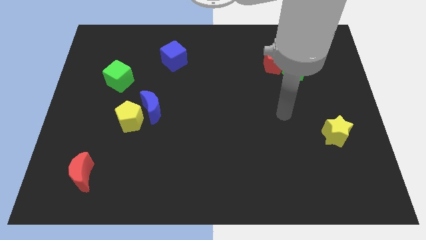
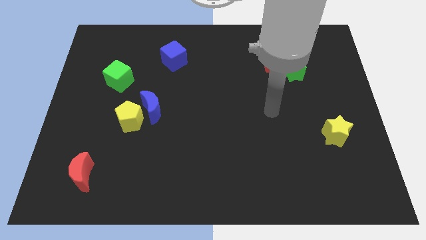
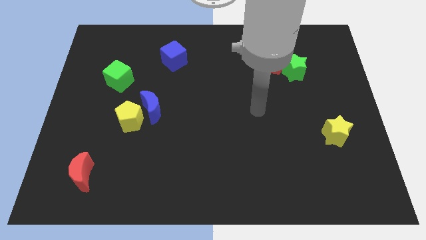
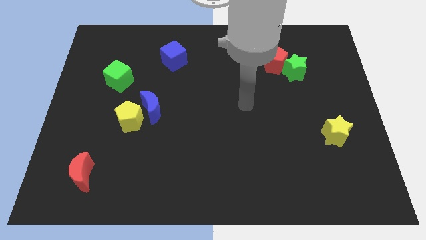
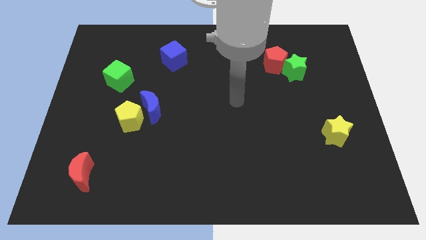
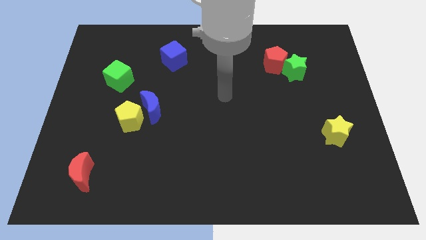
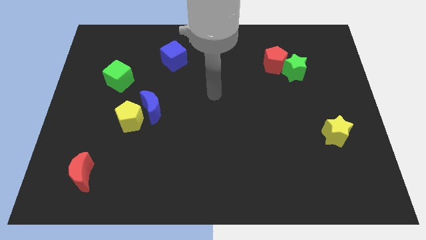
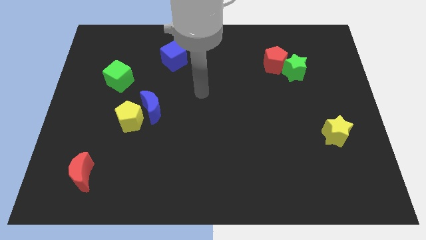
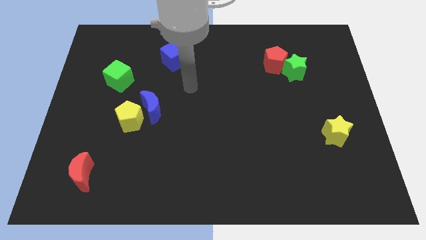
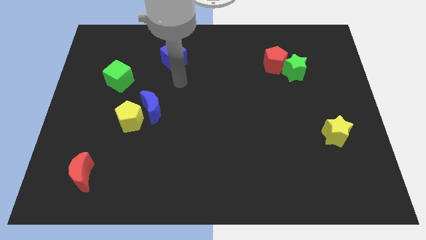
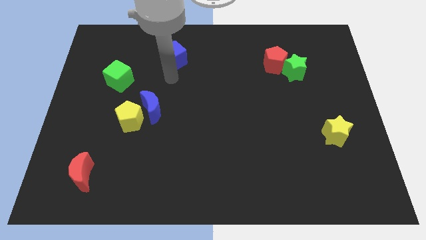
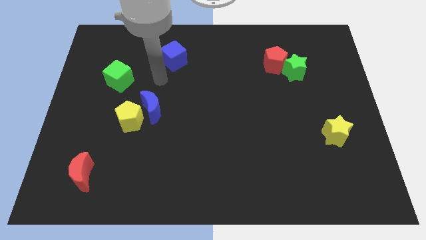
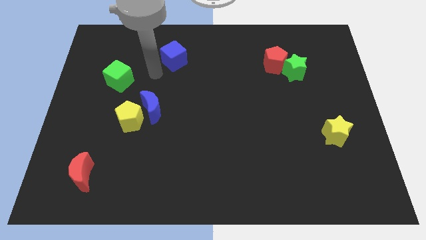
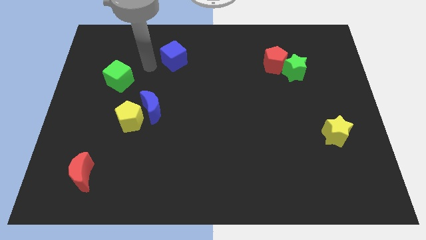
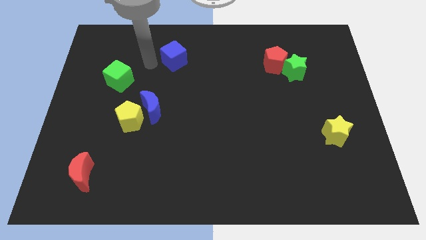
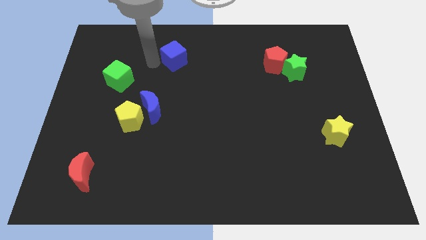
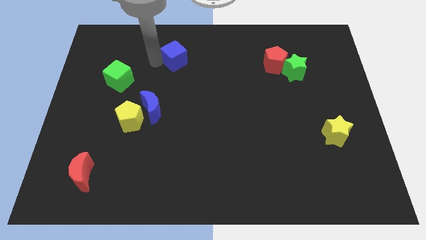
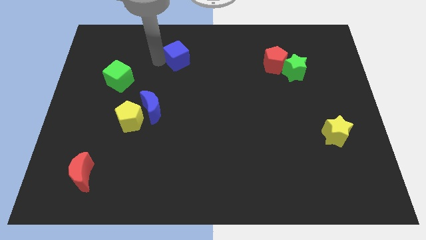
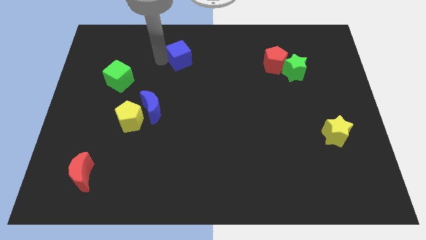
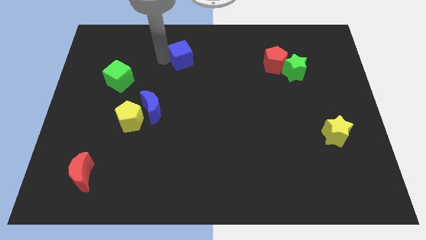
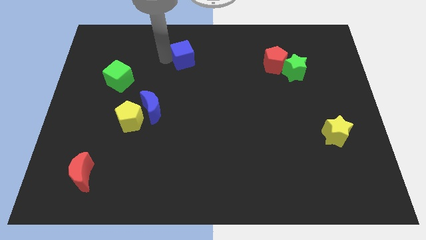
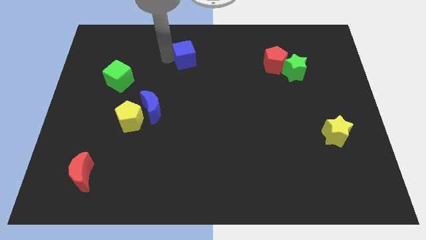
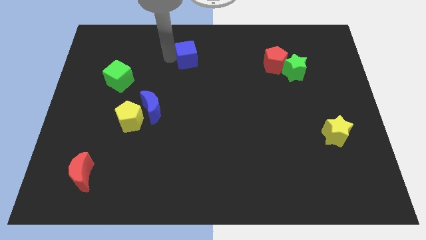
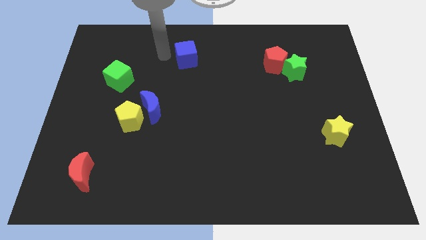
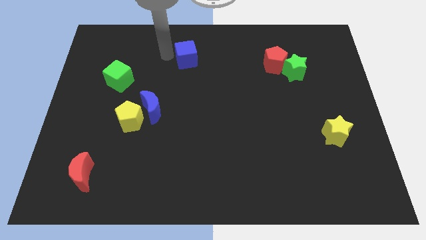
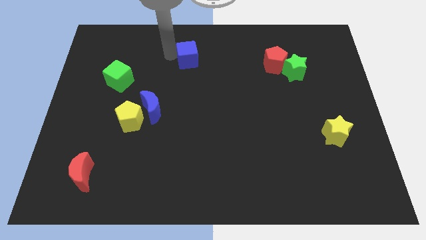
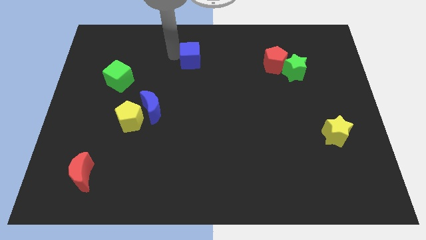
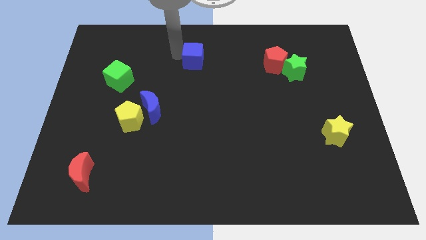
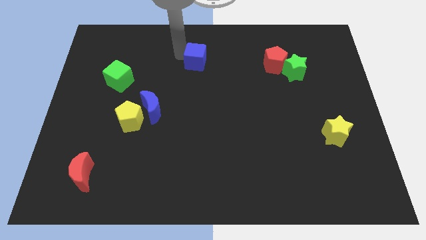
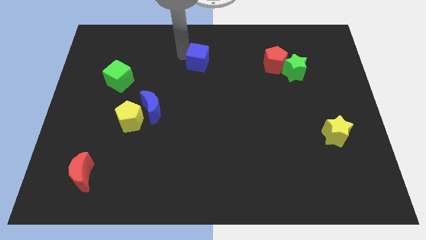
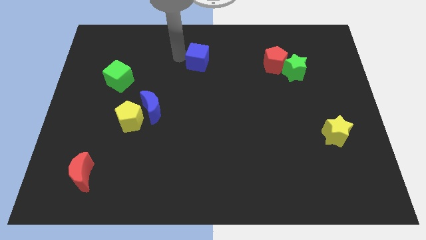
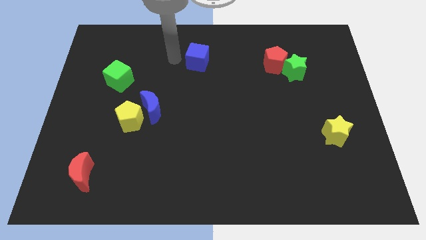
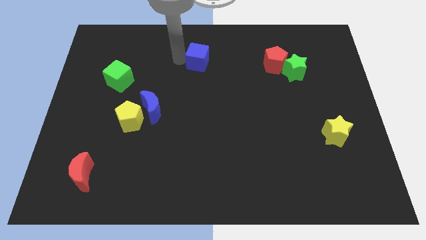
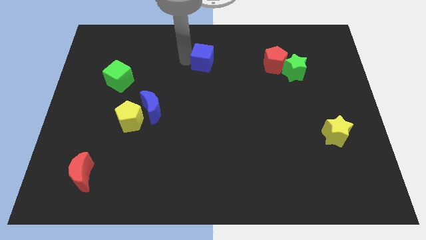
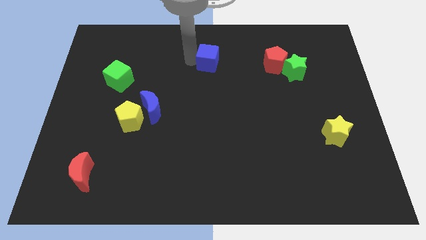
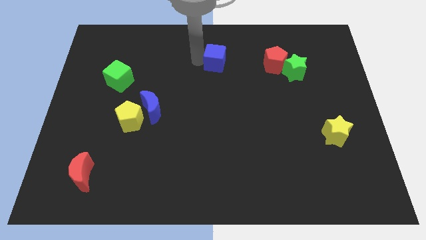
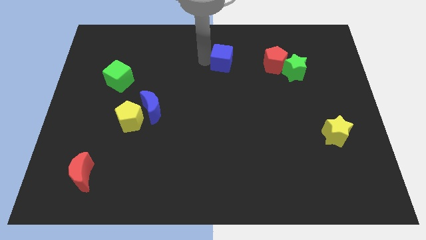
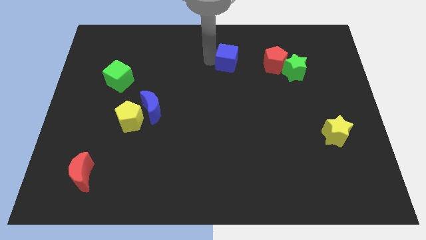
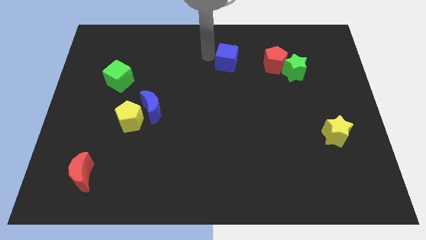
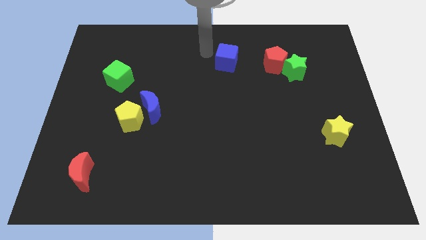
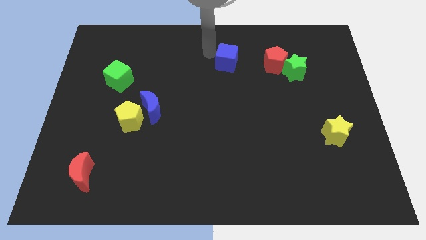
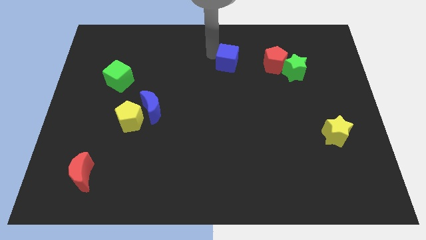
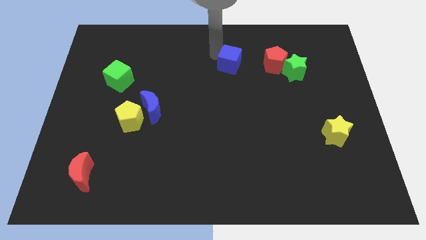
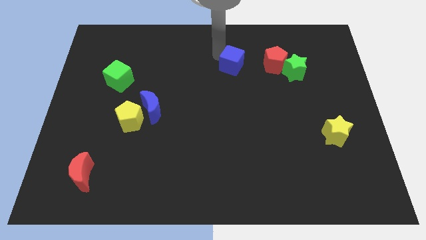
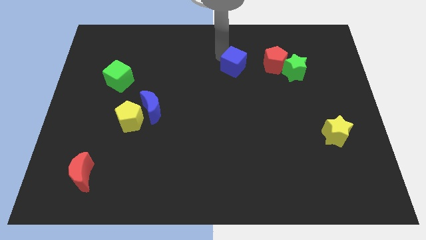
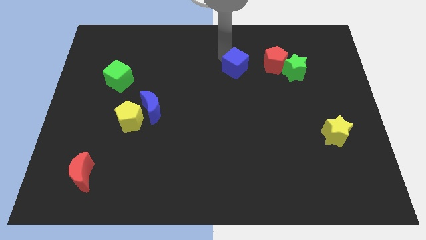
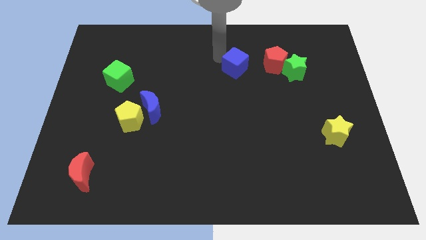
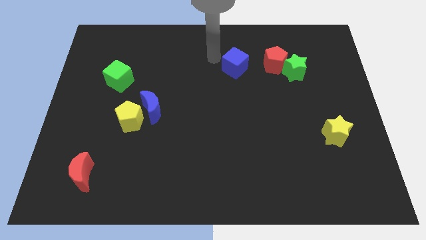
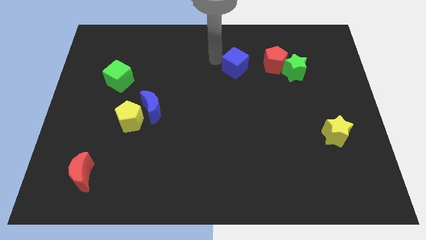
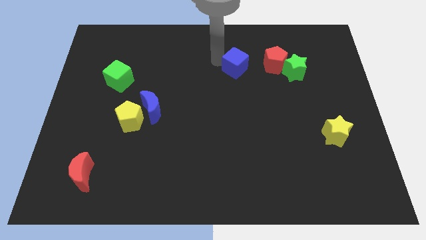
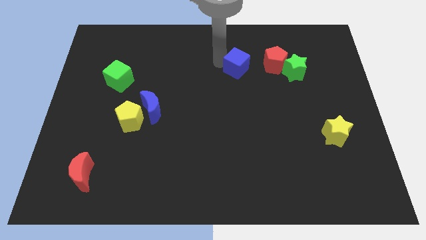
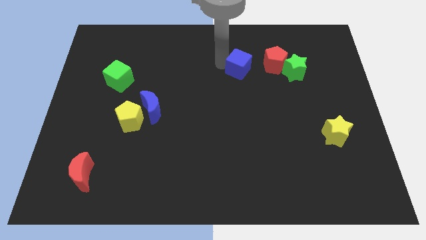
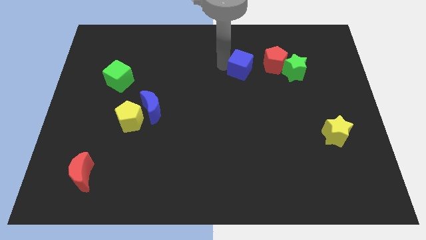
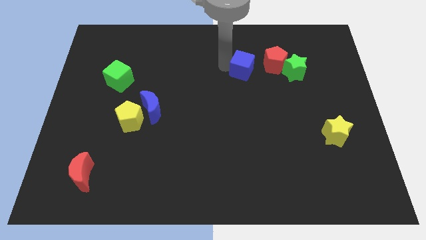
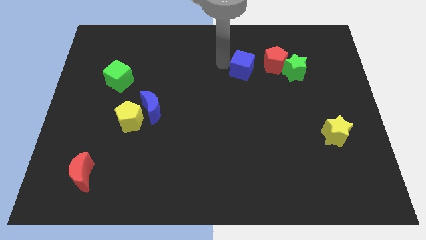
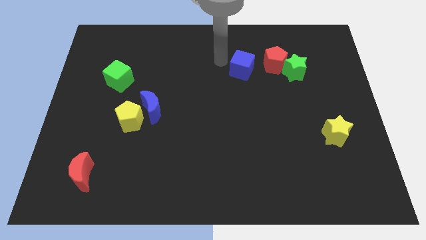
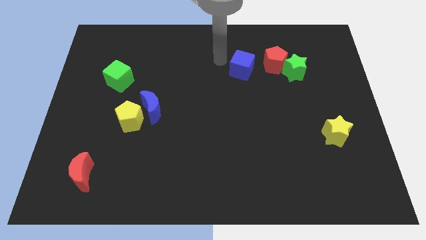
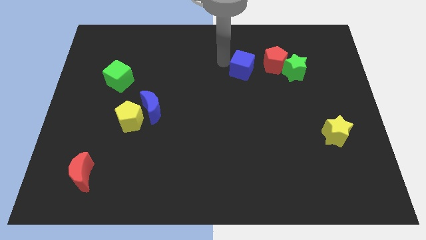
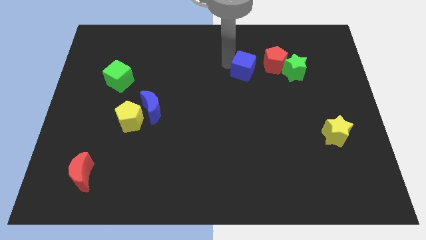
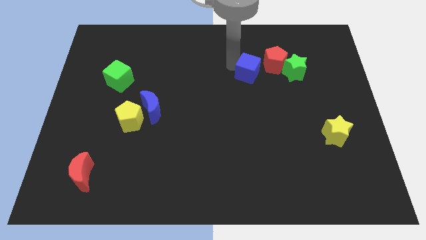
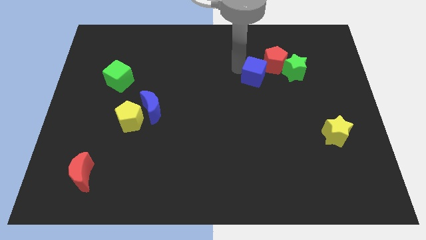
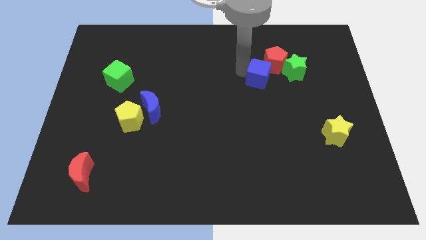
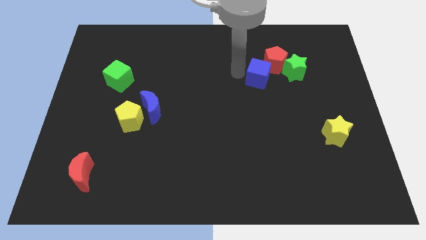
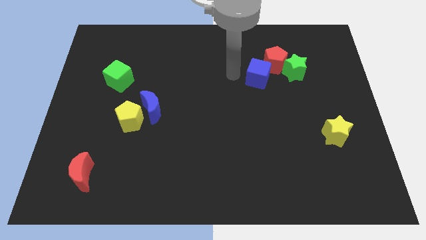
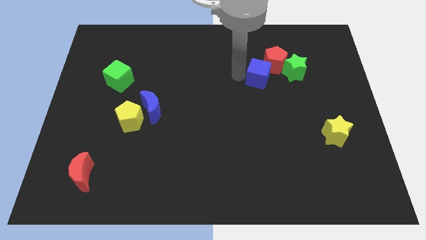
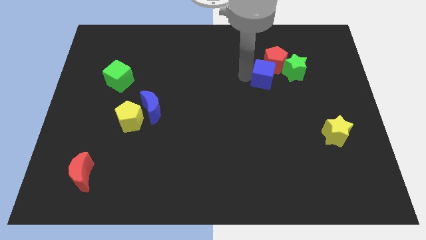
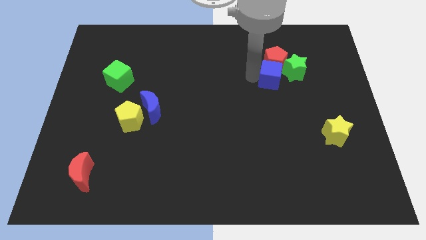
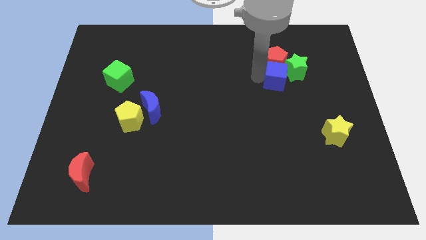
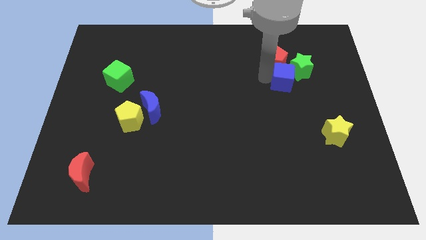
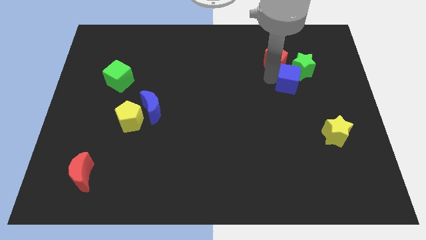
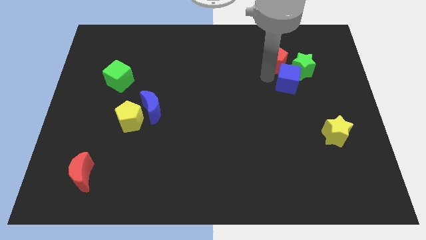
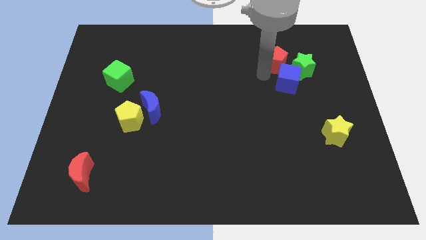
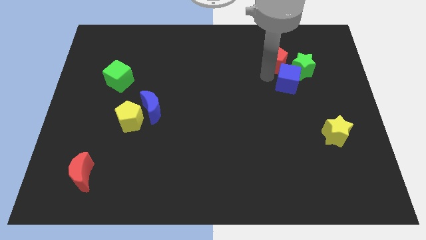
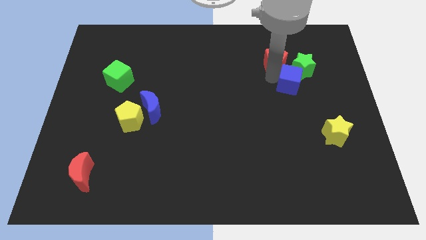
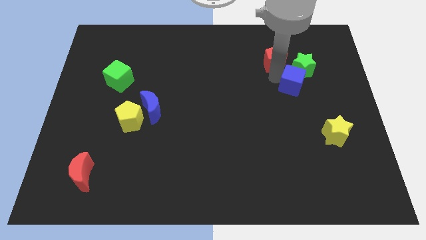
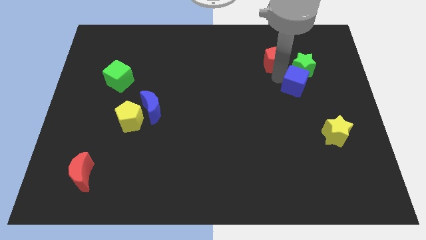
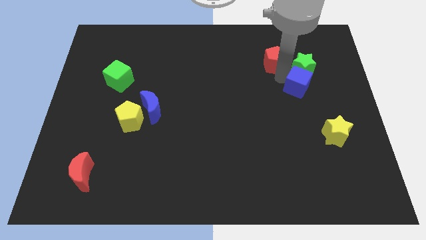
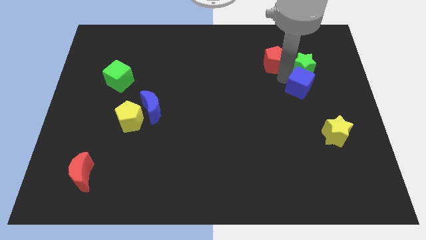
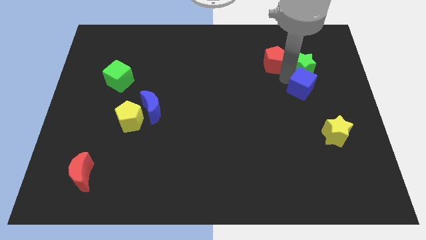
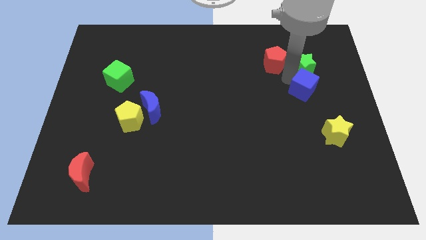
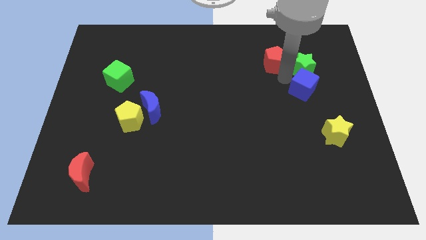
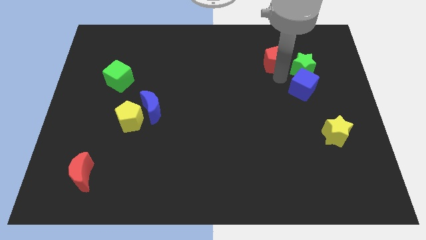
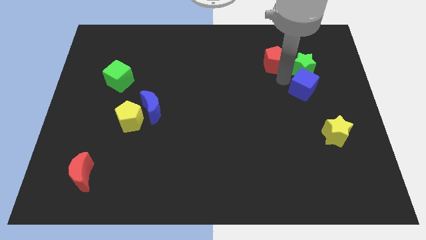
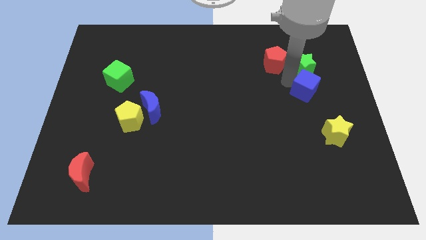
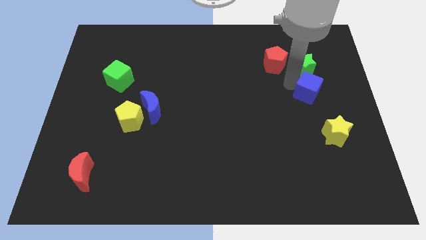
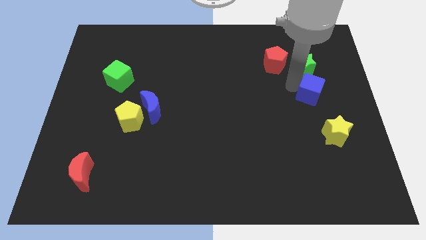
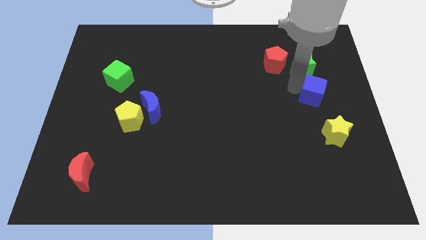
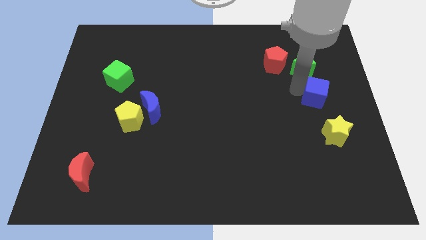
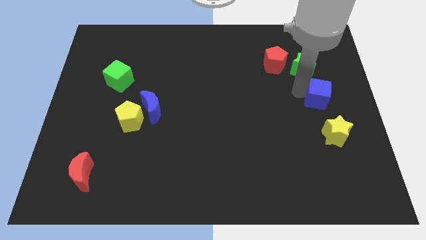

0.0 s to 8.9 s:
put the blue cube to the right side
